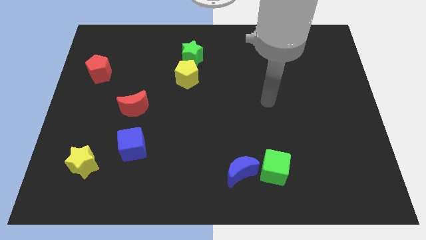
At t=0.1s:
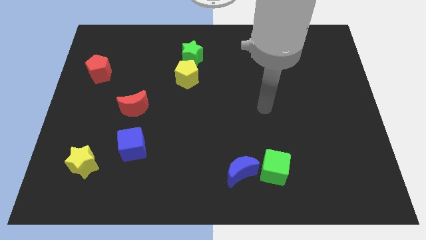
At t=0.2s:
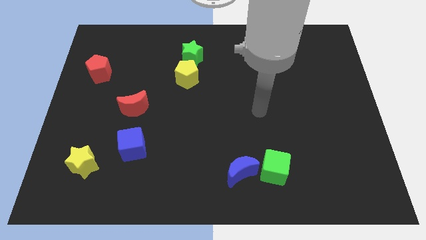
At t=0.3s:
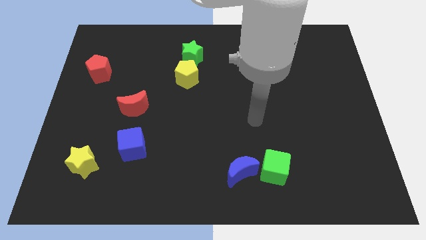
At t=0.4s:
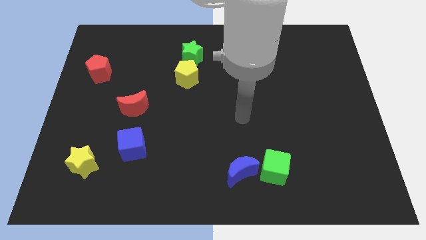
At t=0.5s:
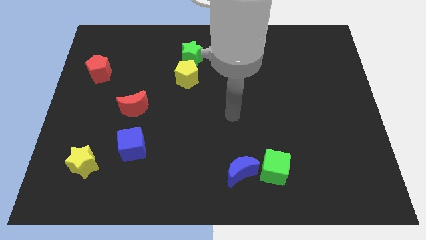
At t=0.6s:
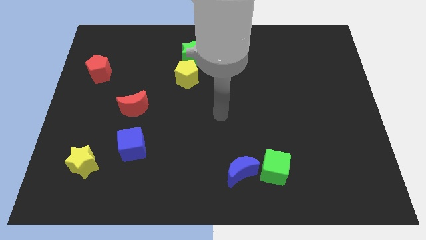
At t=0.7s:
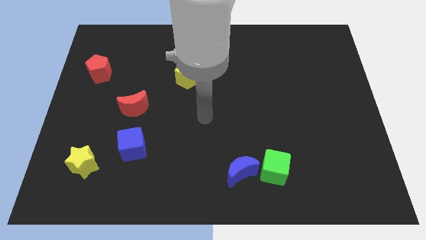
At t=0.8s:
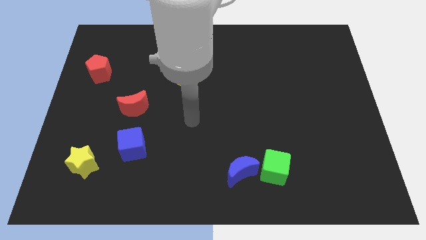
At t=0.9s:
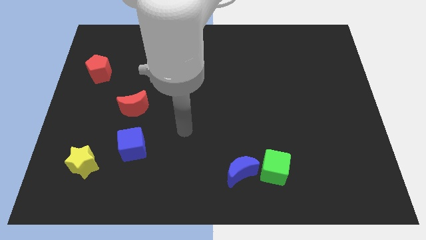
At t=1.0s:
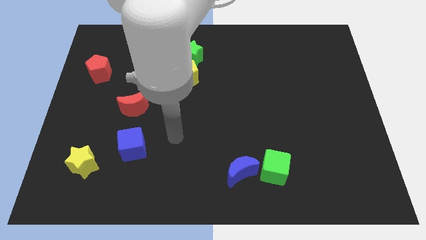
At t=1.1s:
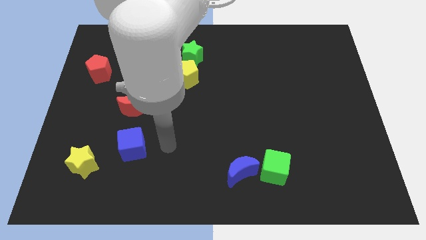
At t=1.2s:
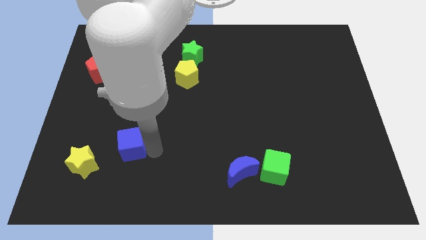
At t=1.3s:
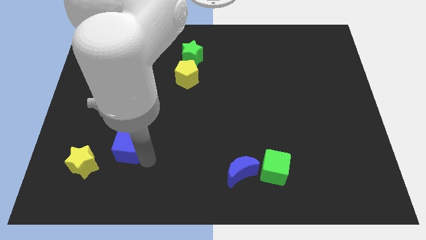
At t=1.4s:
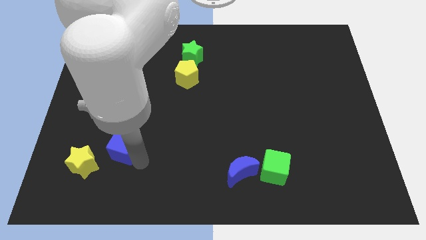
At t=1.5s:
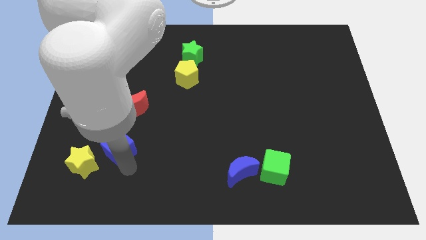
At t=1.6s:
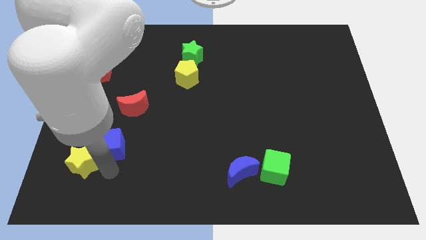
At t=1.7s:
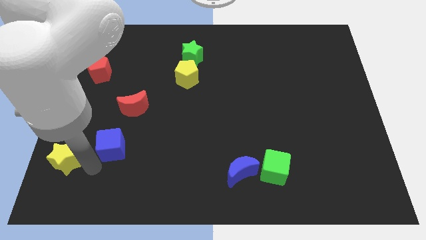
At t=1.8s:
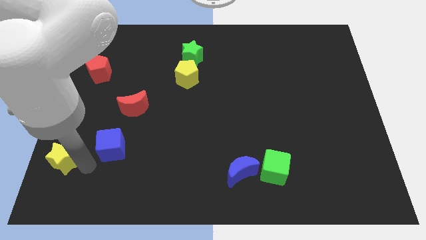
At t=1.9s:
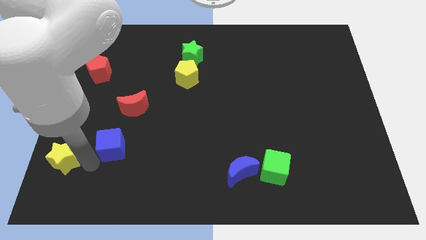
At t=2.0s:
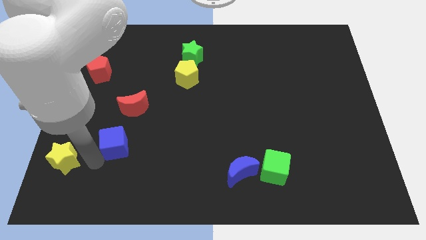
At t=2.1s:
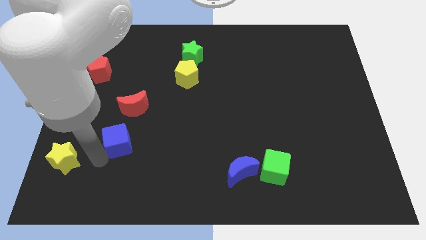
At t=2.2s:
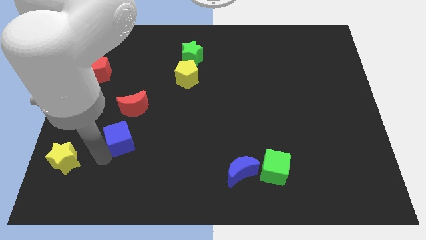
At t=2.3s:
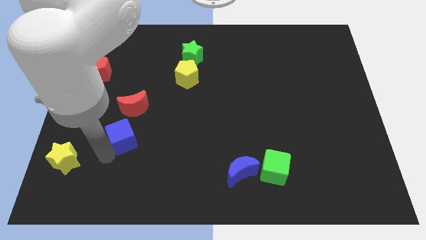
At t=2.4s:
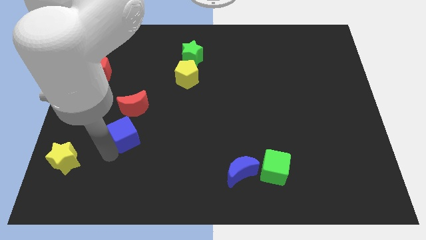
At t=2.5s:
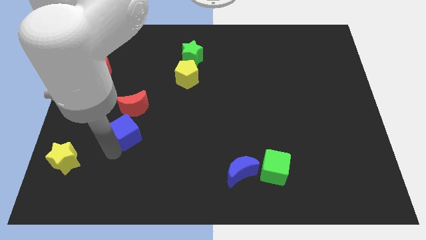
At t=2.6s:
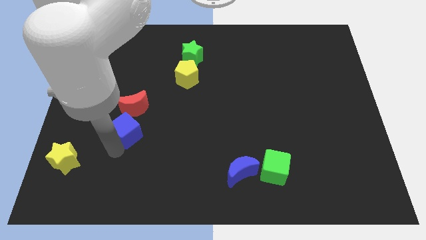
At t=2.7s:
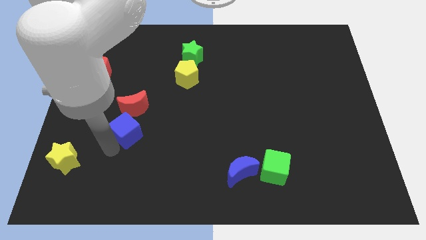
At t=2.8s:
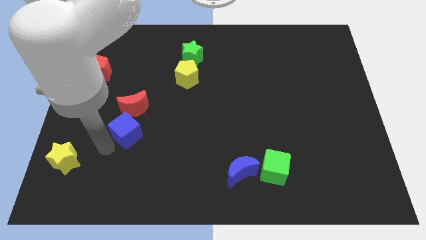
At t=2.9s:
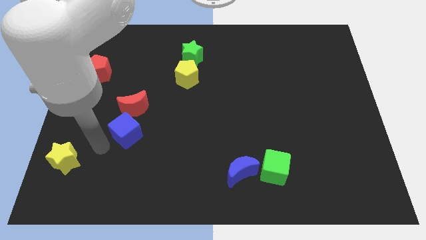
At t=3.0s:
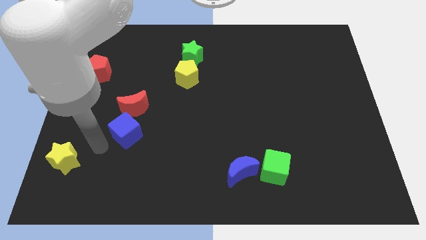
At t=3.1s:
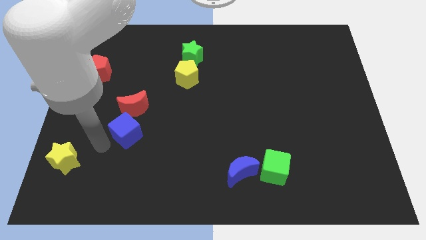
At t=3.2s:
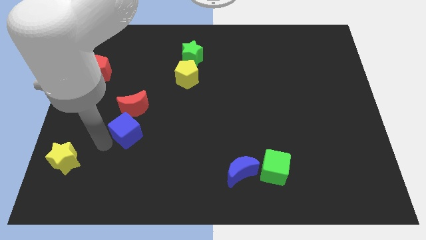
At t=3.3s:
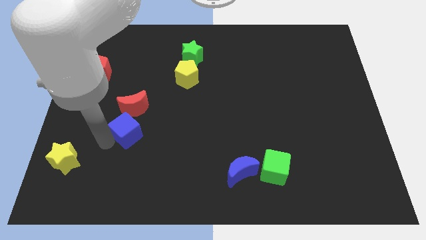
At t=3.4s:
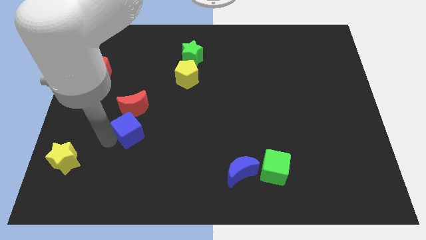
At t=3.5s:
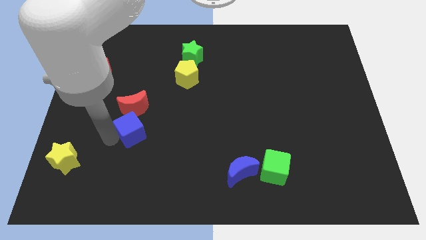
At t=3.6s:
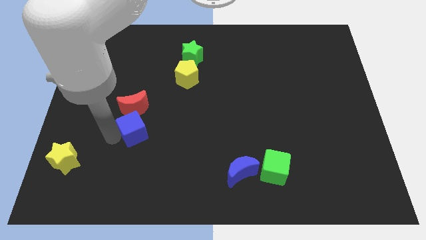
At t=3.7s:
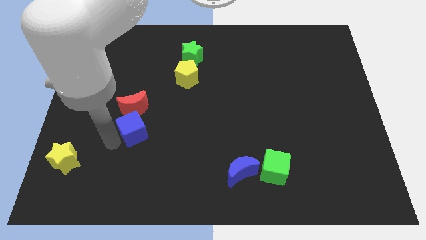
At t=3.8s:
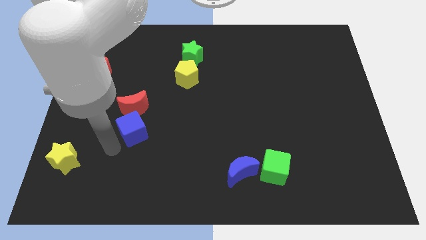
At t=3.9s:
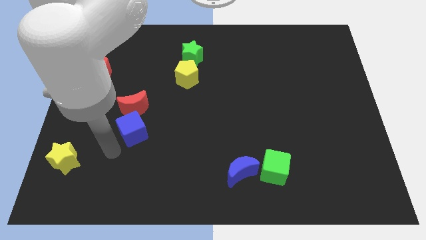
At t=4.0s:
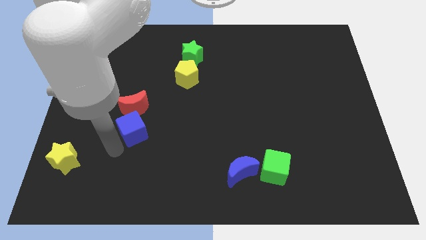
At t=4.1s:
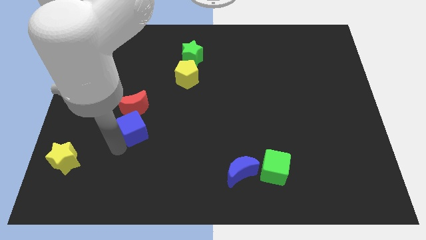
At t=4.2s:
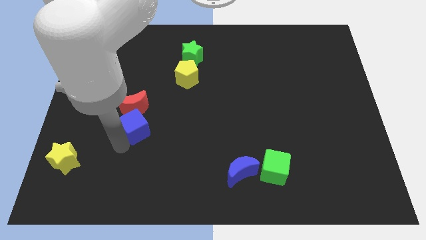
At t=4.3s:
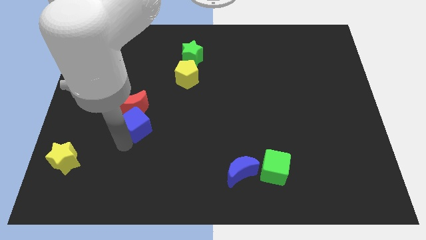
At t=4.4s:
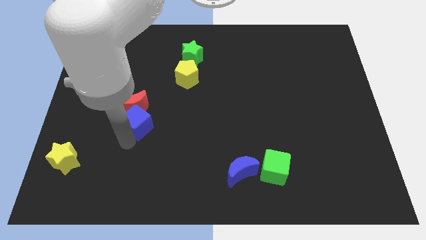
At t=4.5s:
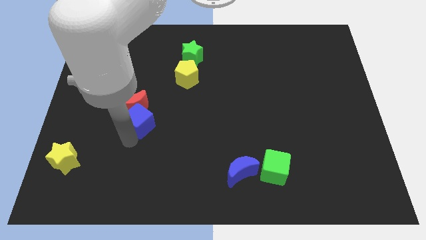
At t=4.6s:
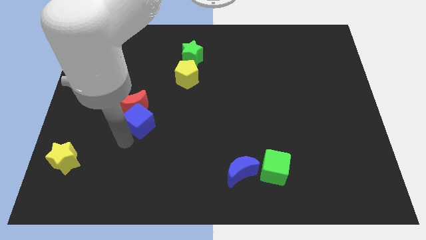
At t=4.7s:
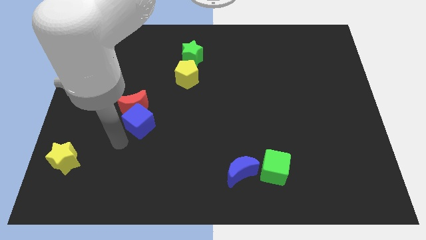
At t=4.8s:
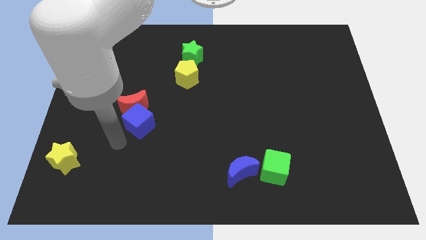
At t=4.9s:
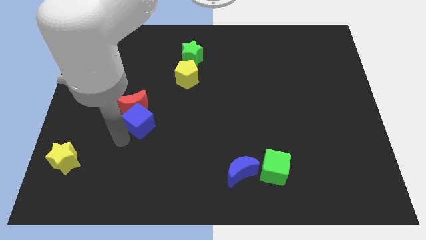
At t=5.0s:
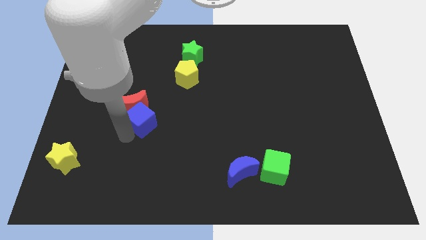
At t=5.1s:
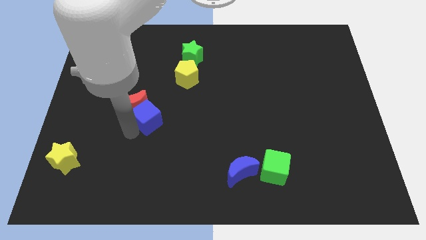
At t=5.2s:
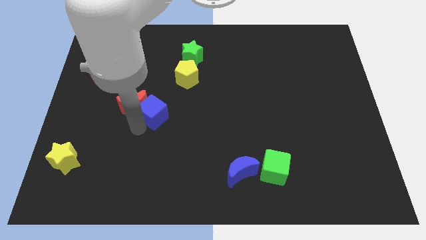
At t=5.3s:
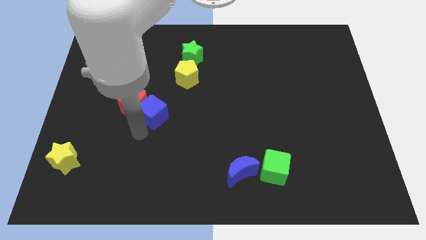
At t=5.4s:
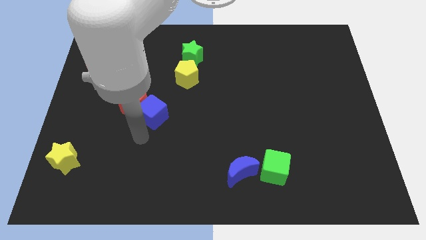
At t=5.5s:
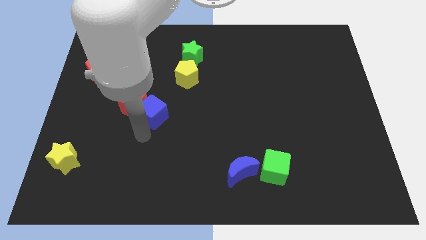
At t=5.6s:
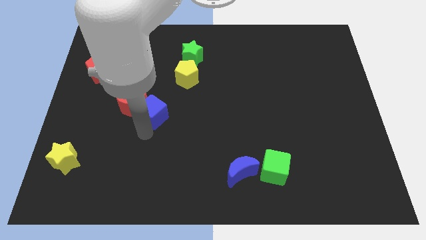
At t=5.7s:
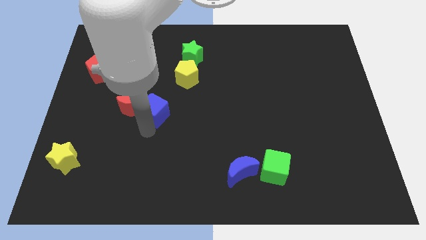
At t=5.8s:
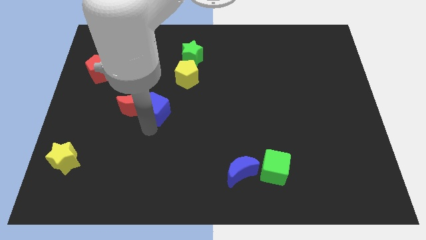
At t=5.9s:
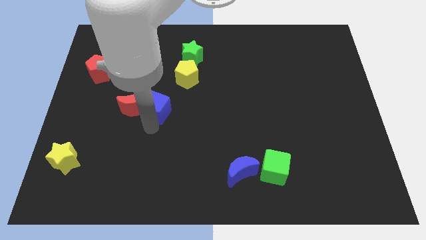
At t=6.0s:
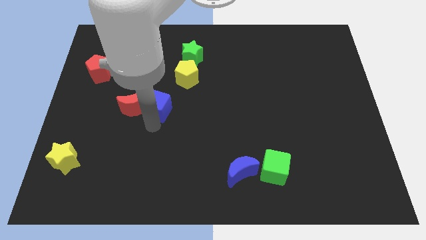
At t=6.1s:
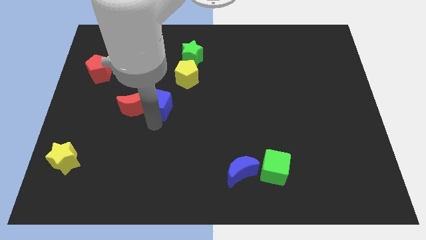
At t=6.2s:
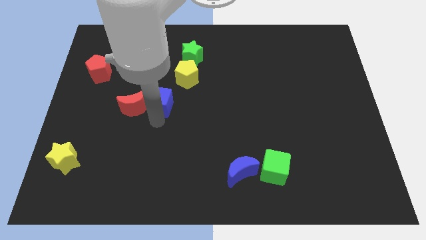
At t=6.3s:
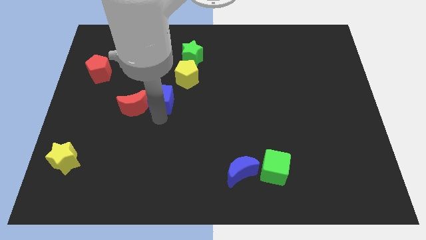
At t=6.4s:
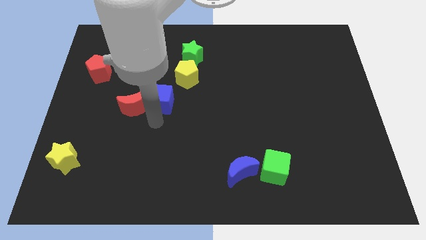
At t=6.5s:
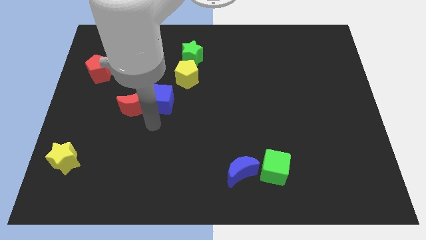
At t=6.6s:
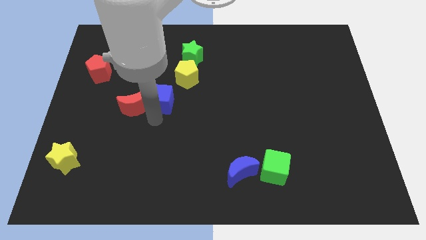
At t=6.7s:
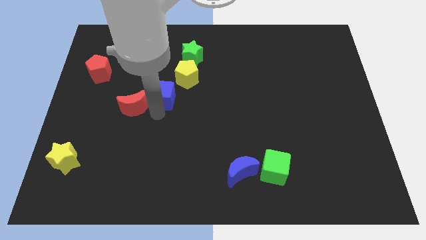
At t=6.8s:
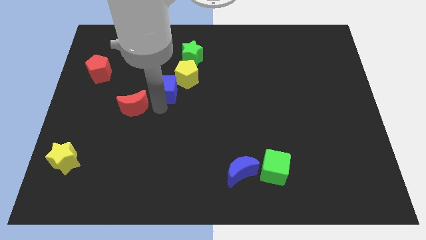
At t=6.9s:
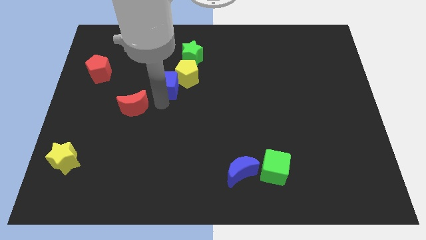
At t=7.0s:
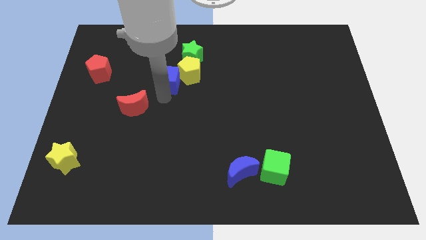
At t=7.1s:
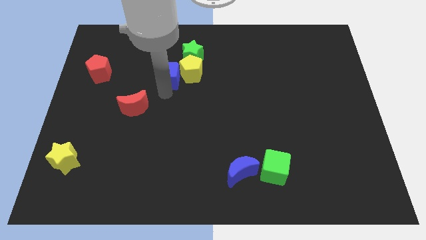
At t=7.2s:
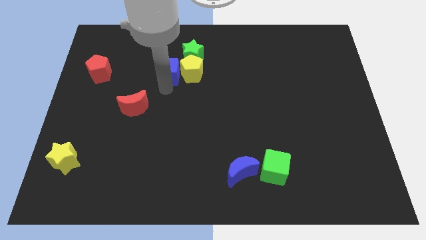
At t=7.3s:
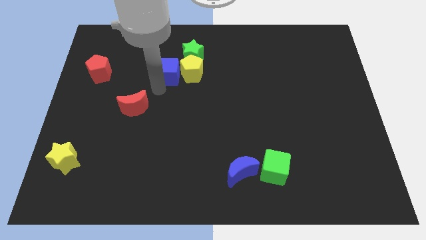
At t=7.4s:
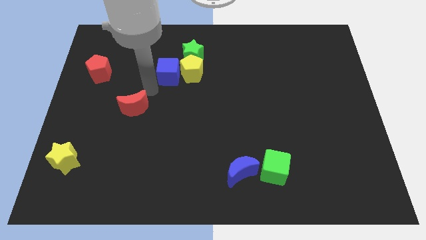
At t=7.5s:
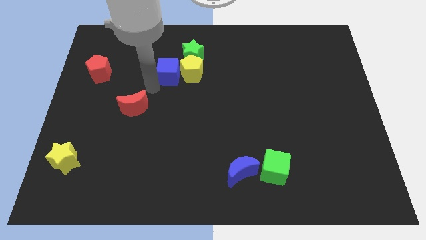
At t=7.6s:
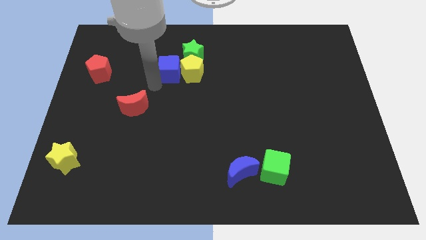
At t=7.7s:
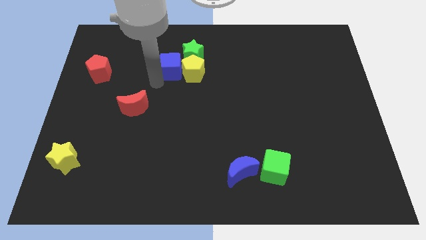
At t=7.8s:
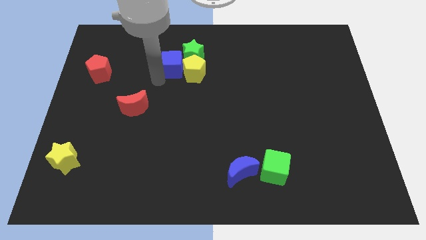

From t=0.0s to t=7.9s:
push the blue cube close to the green star
